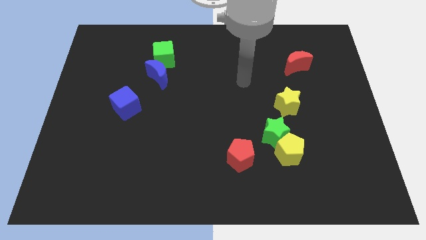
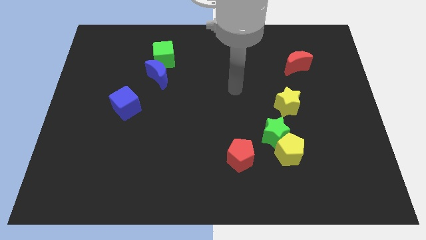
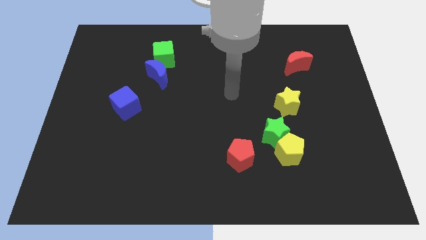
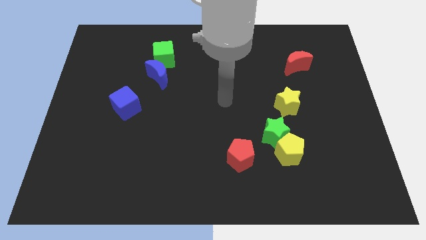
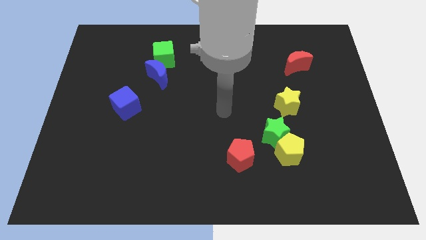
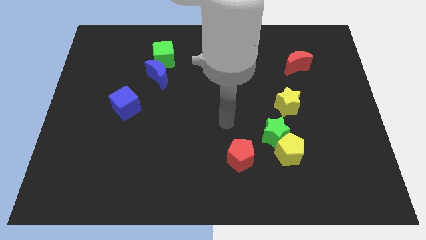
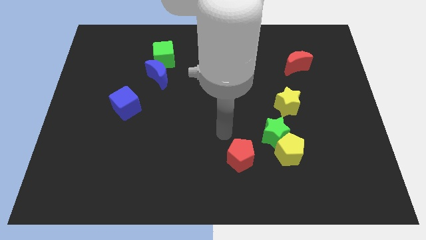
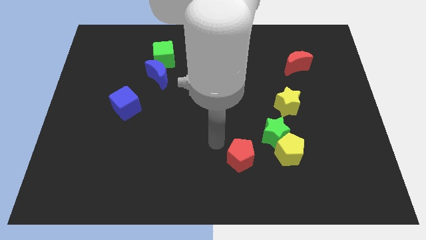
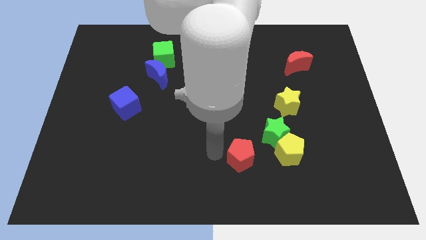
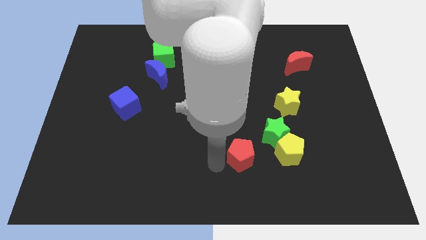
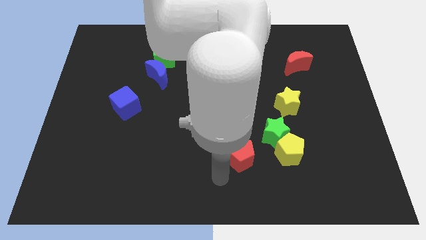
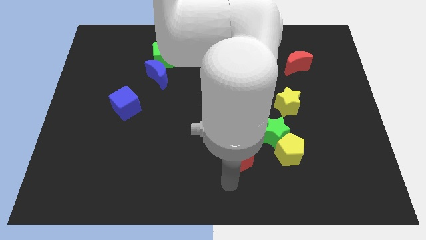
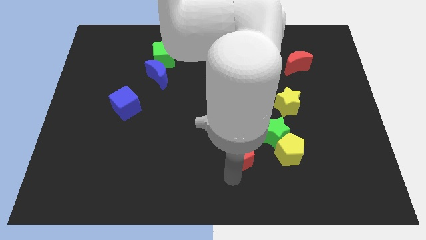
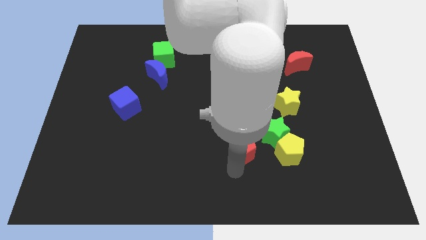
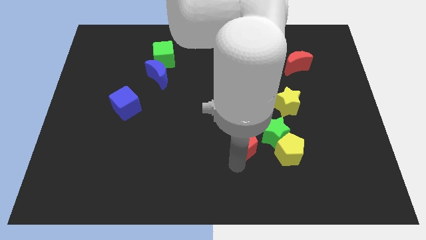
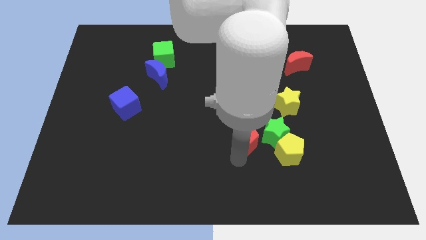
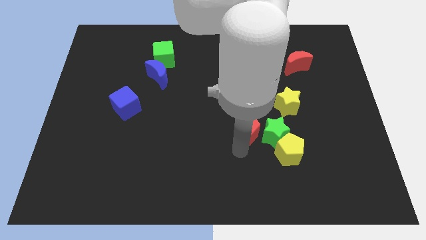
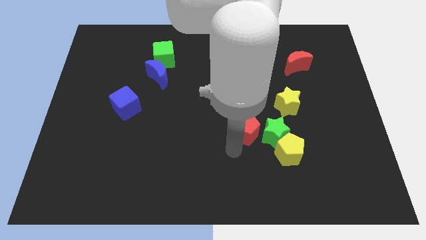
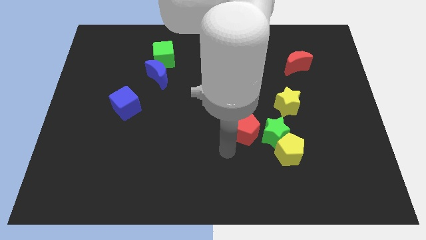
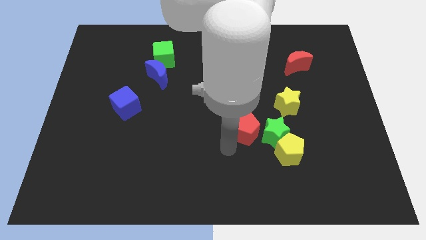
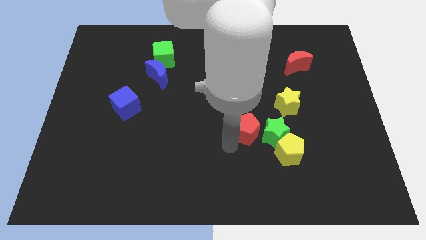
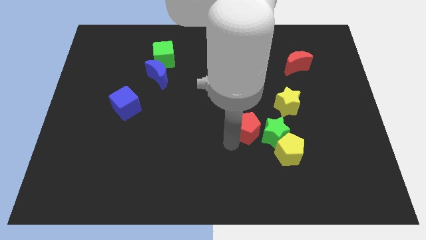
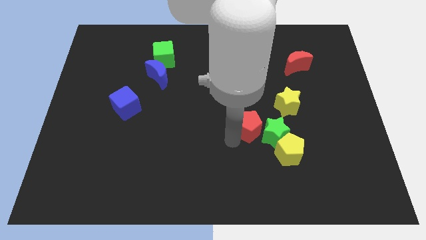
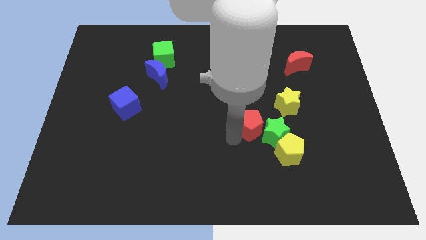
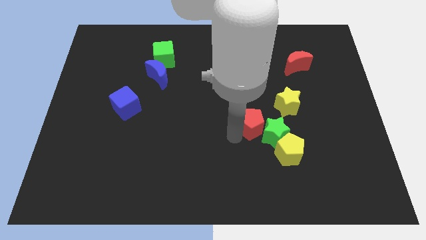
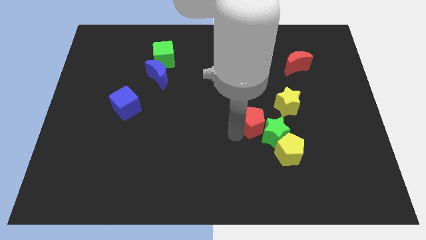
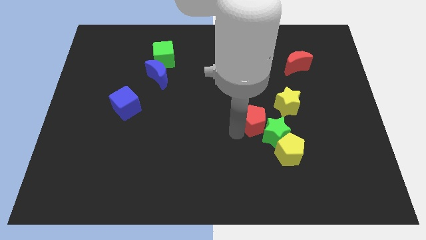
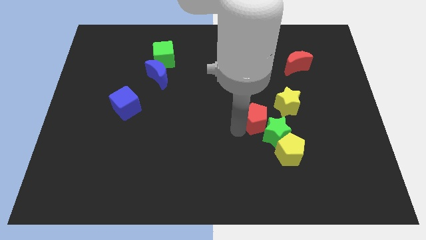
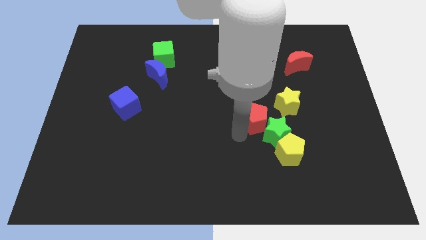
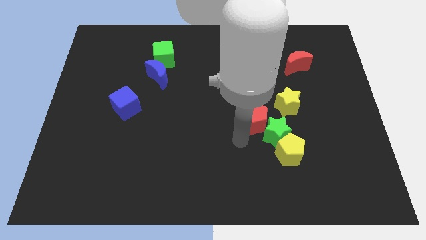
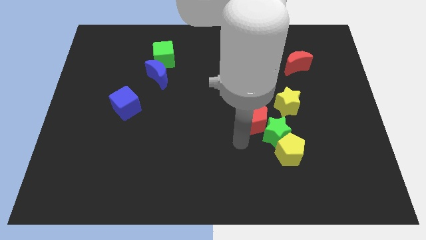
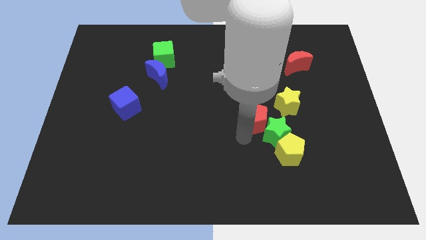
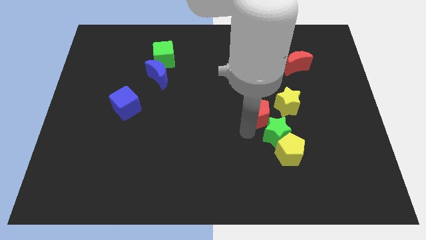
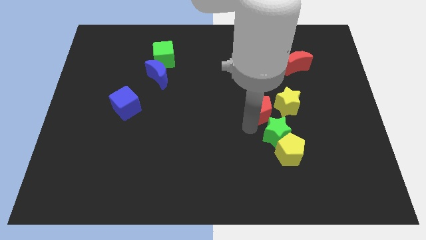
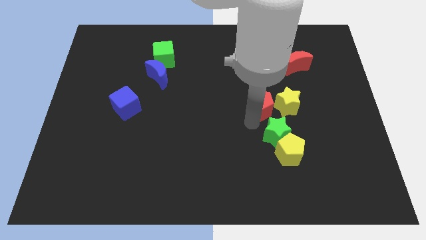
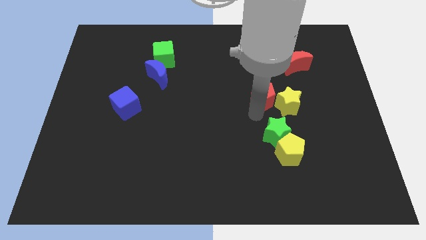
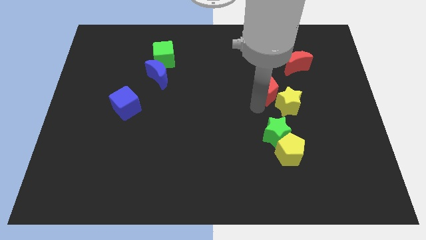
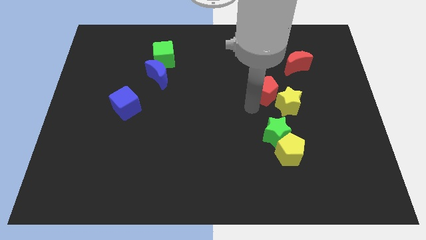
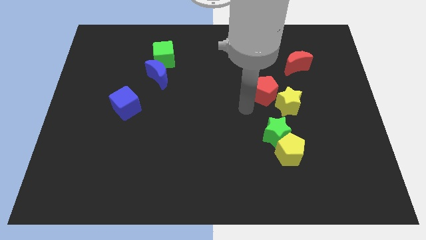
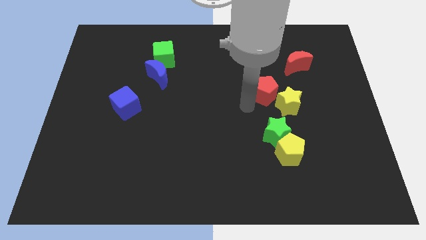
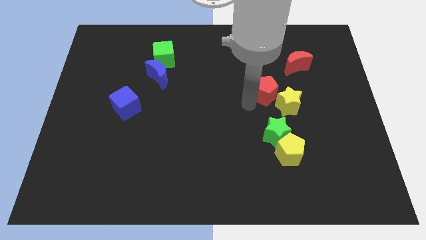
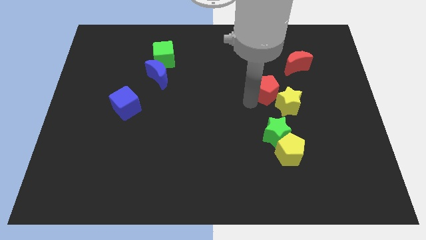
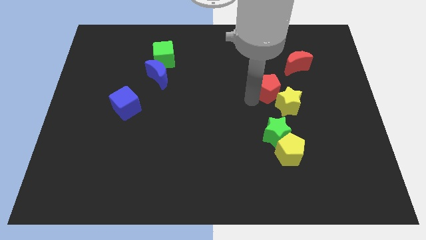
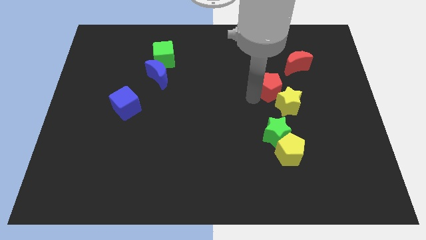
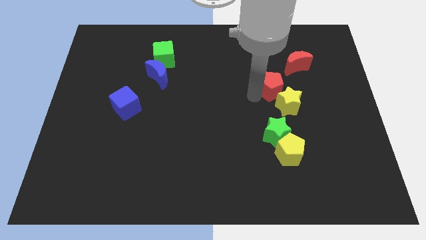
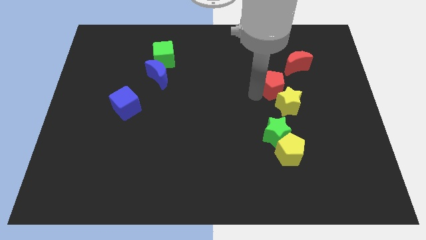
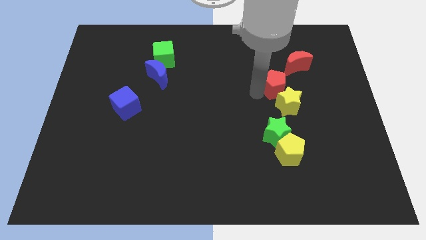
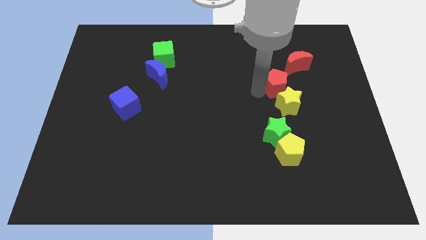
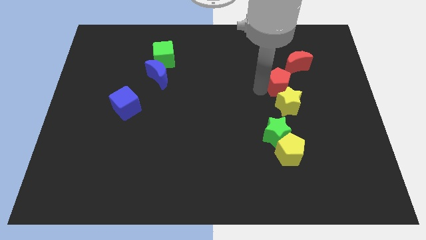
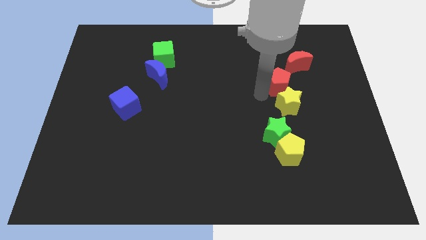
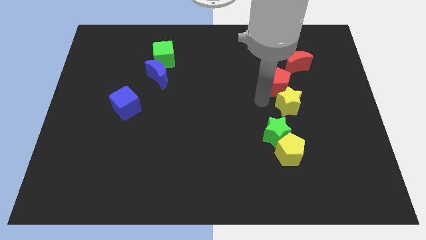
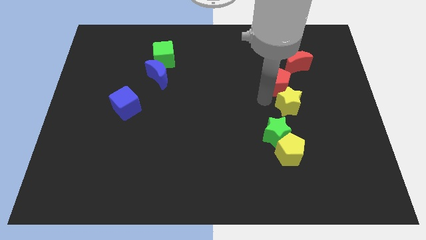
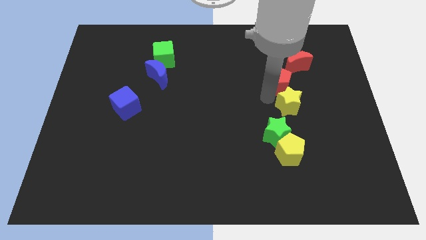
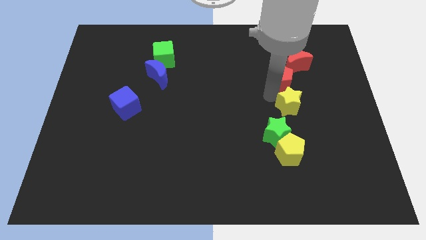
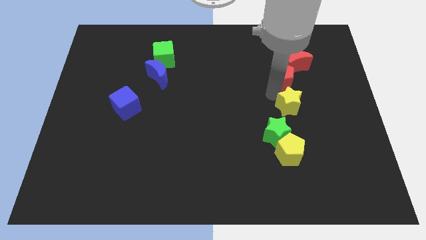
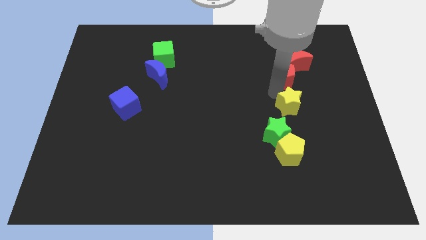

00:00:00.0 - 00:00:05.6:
push the red pentagon close to the red moon

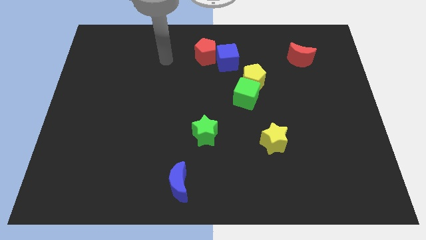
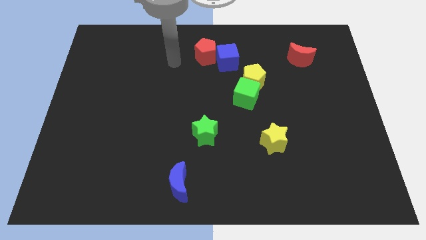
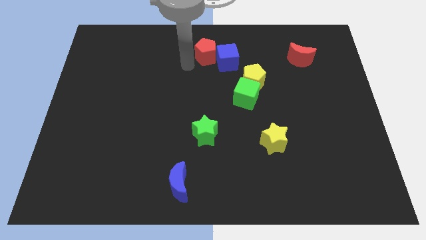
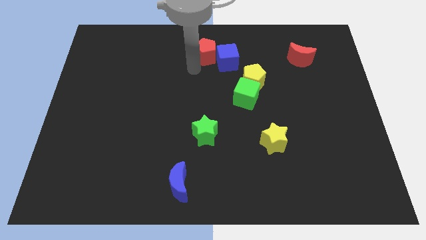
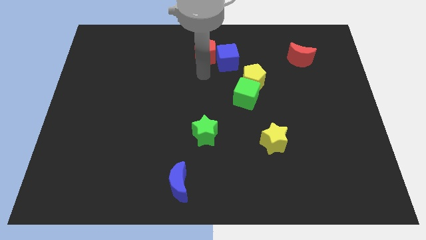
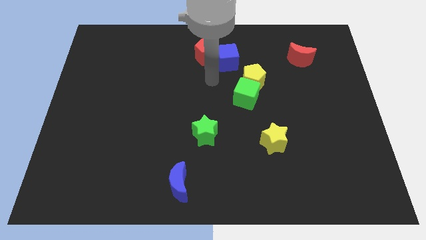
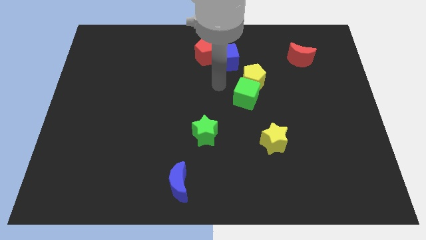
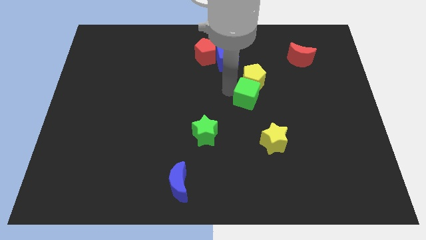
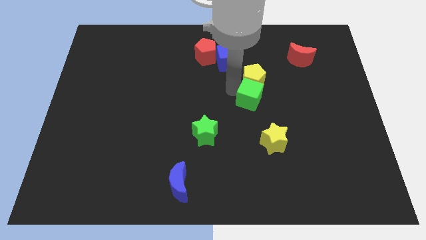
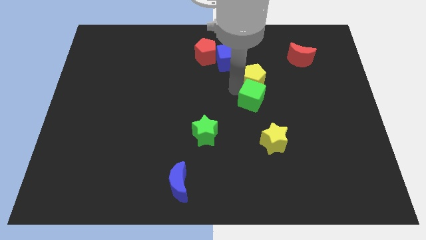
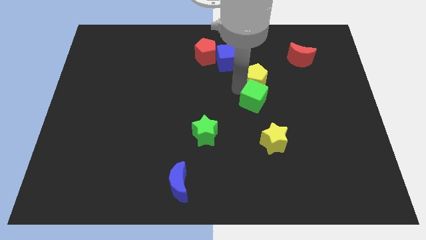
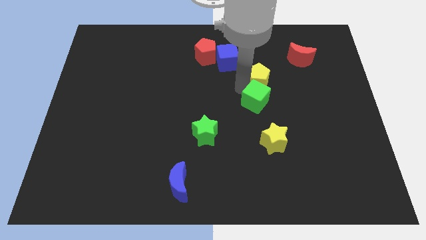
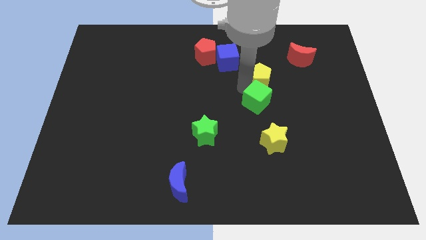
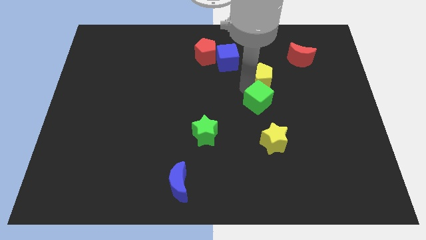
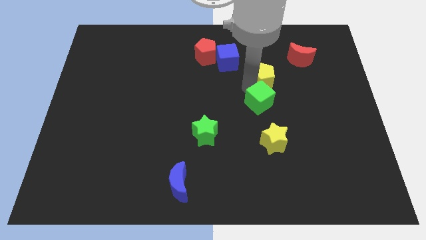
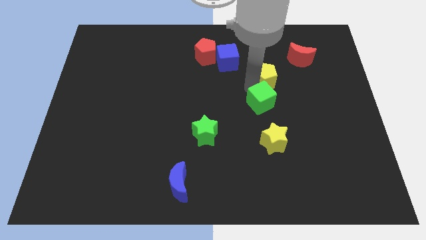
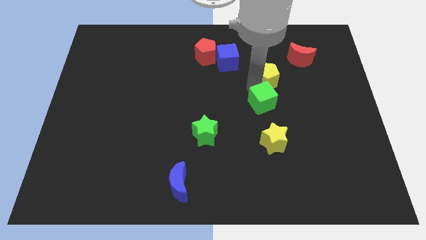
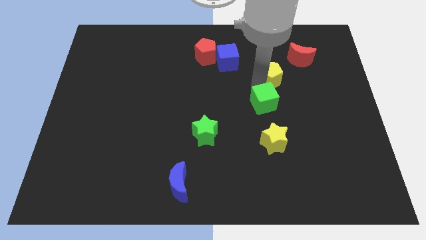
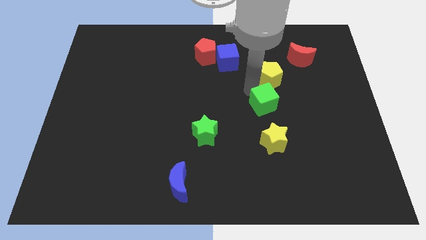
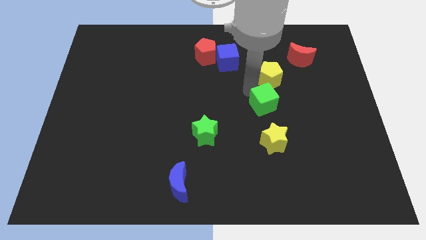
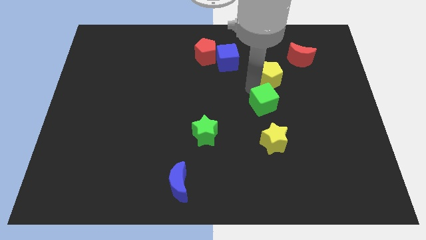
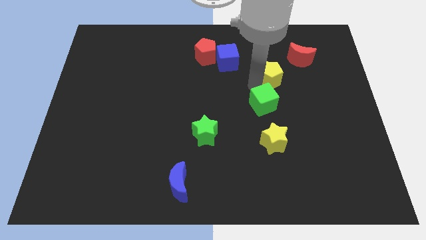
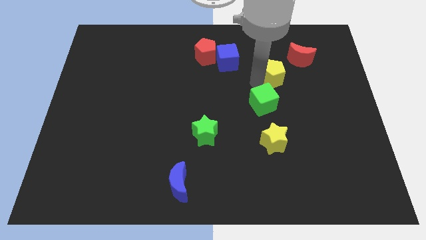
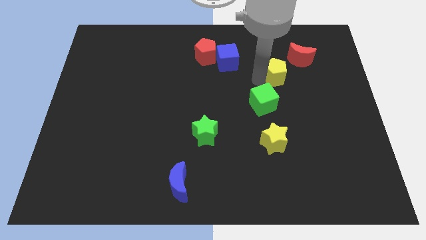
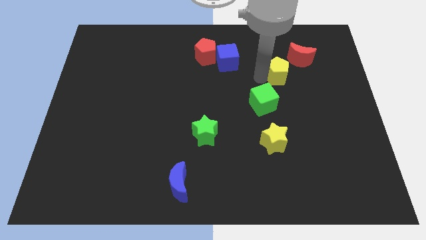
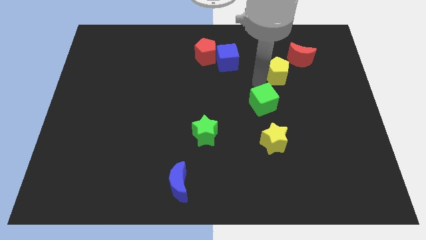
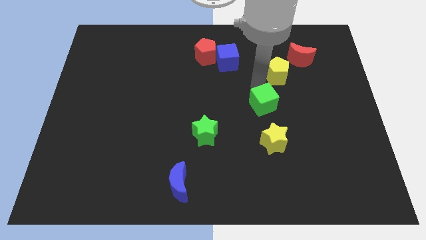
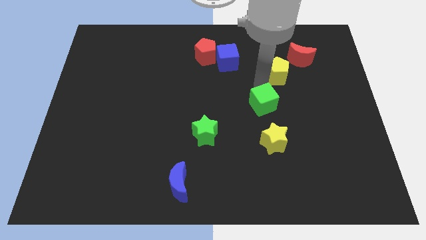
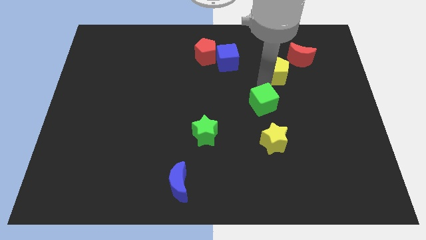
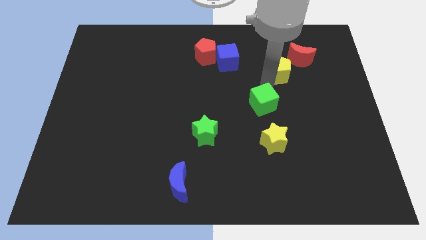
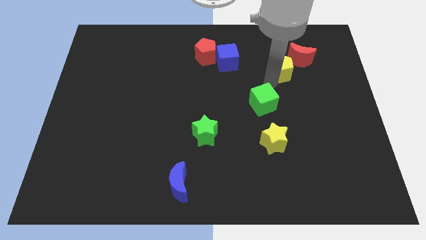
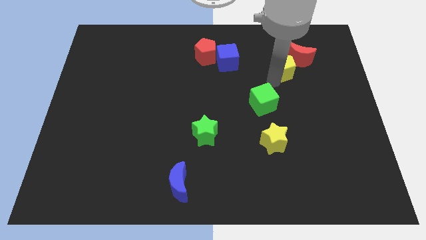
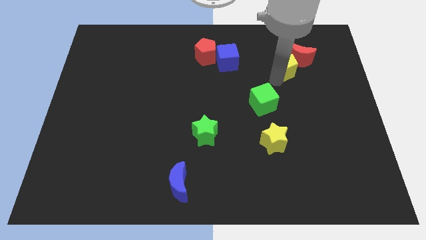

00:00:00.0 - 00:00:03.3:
slide the yellow pentagon close to the red moon
